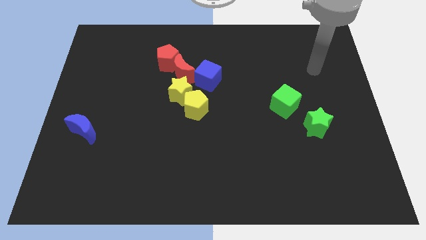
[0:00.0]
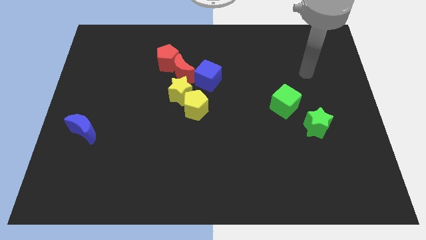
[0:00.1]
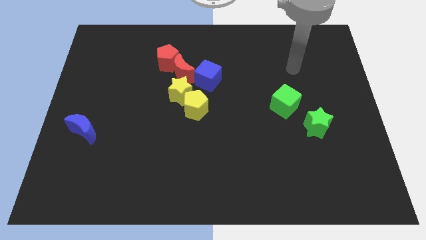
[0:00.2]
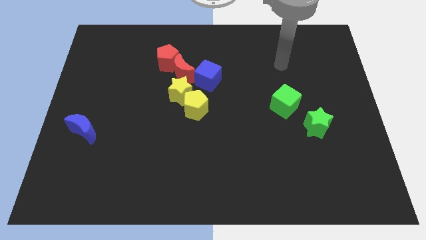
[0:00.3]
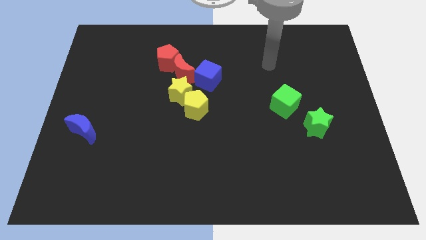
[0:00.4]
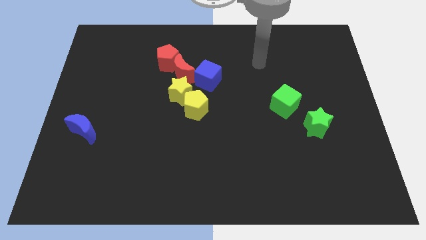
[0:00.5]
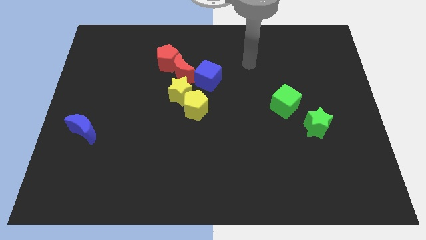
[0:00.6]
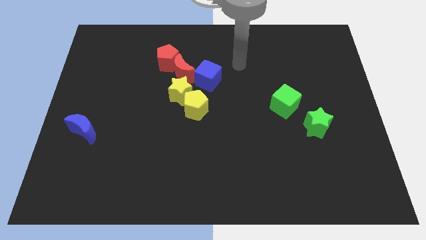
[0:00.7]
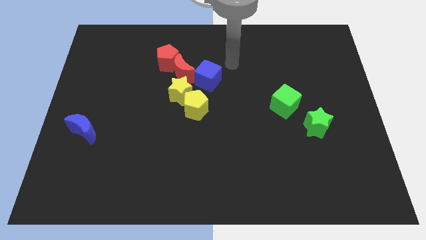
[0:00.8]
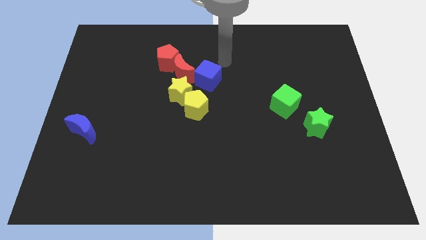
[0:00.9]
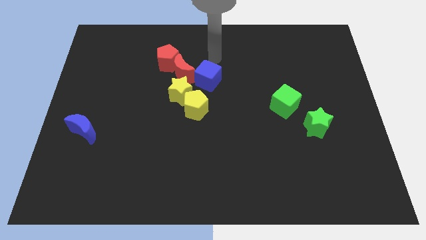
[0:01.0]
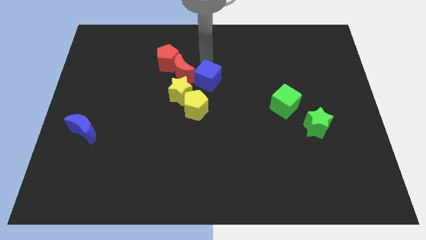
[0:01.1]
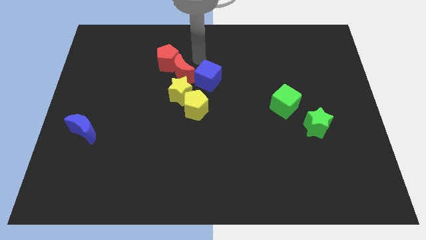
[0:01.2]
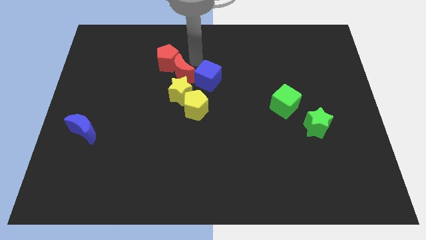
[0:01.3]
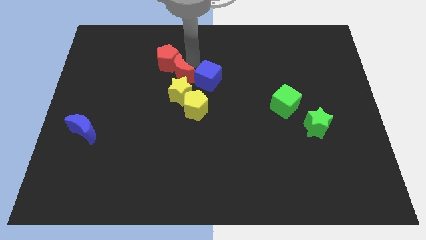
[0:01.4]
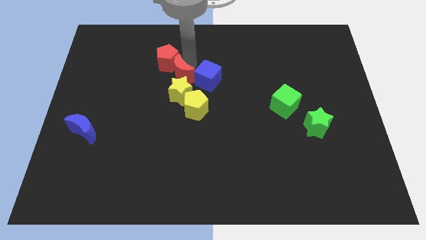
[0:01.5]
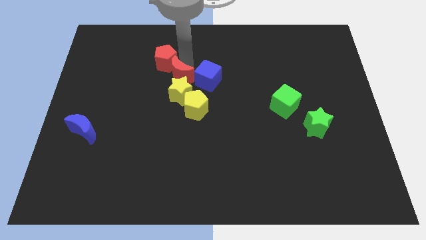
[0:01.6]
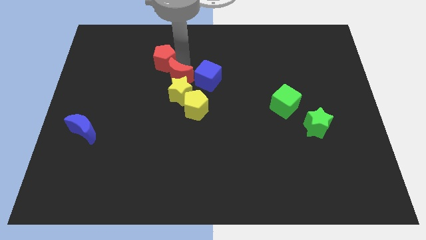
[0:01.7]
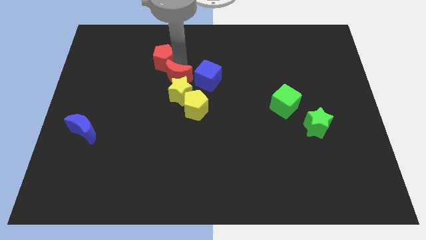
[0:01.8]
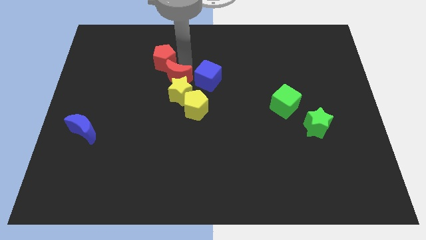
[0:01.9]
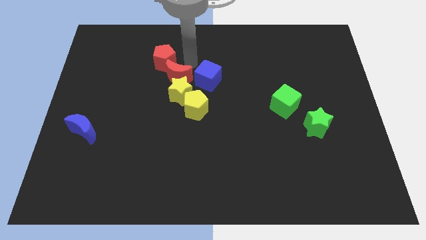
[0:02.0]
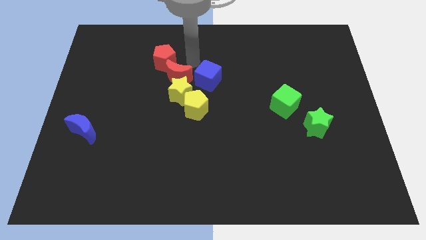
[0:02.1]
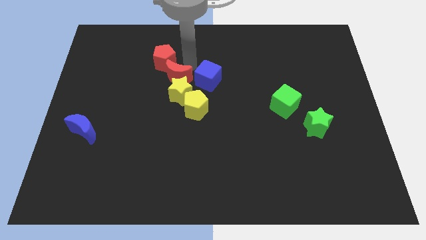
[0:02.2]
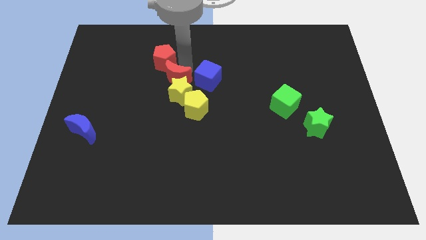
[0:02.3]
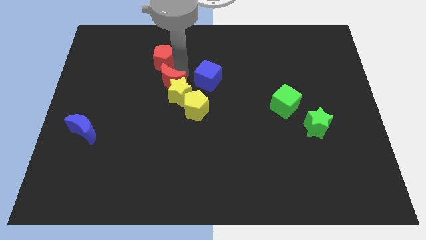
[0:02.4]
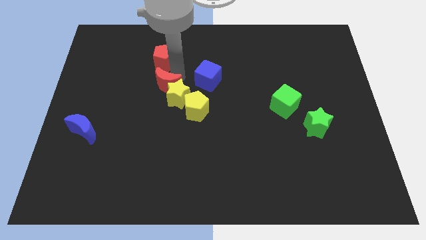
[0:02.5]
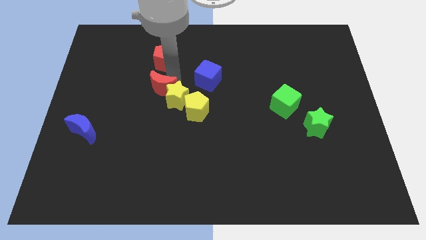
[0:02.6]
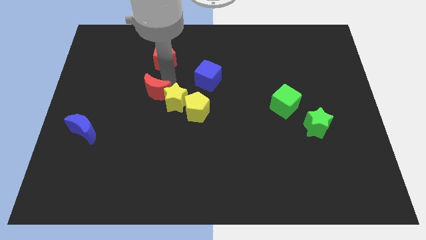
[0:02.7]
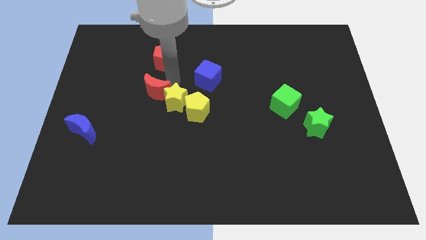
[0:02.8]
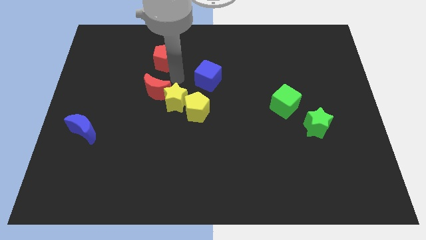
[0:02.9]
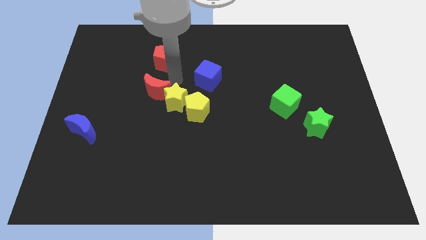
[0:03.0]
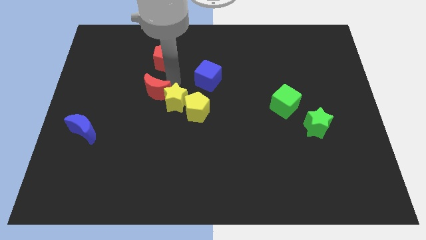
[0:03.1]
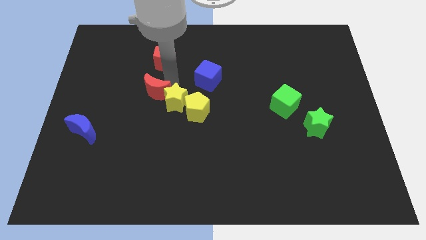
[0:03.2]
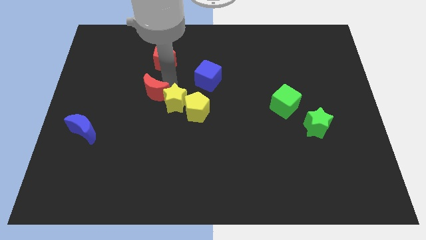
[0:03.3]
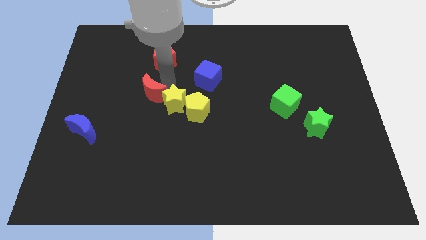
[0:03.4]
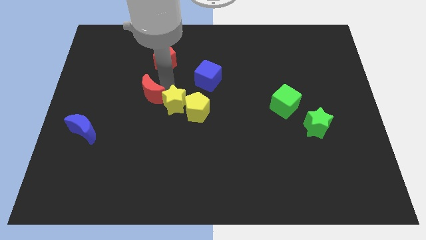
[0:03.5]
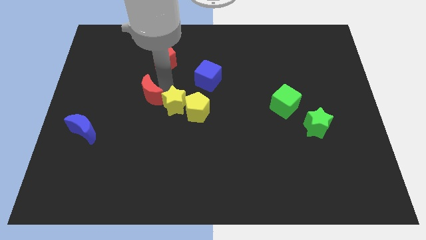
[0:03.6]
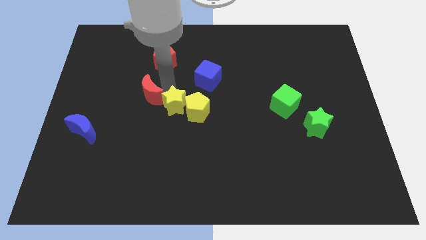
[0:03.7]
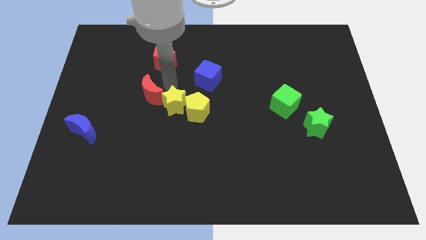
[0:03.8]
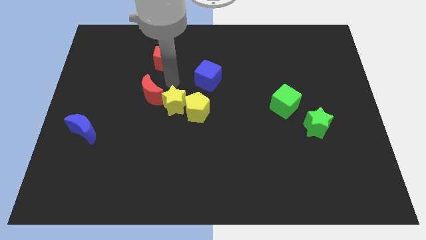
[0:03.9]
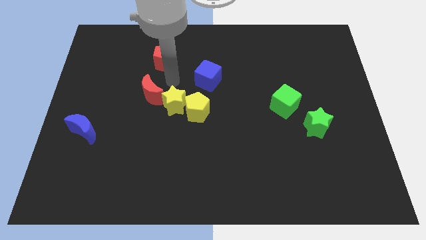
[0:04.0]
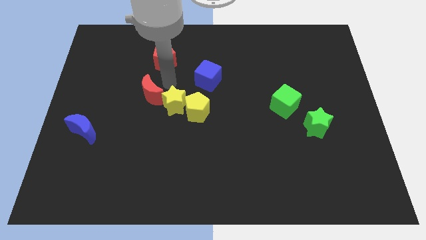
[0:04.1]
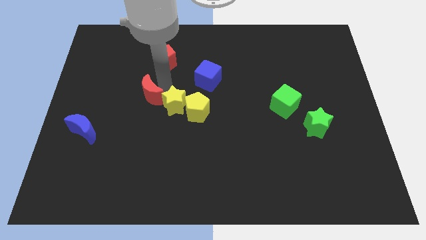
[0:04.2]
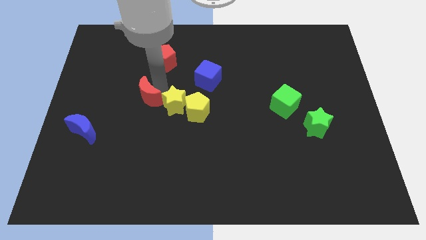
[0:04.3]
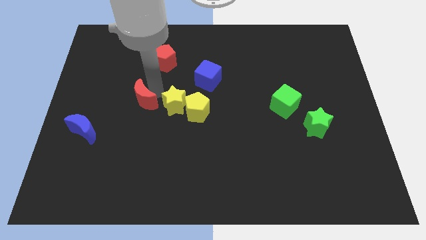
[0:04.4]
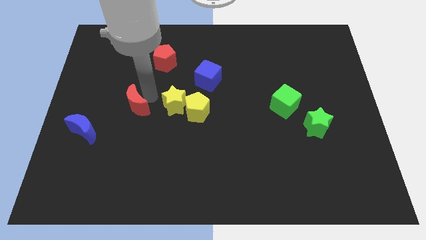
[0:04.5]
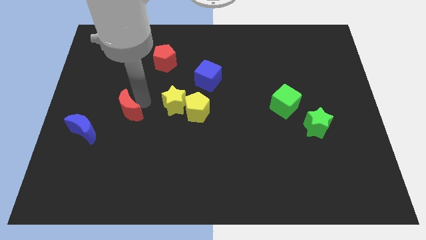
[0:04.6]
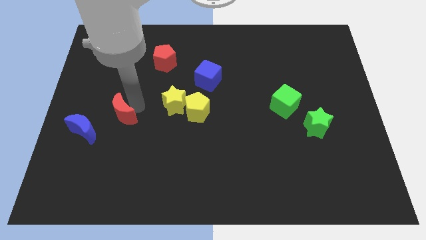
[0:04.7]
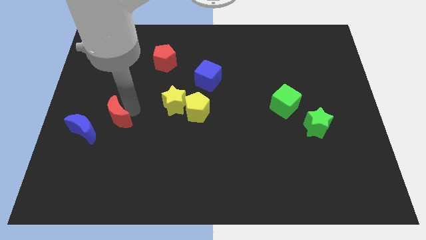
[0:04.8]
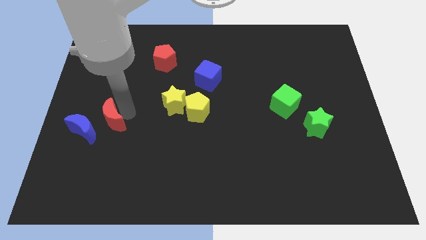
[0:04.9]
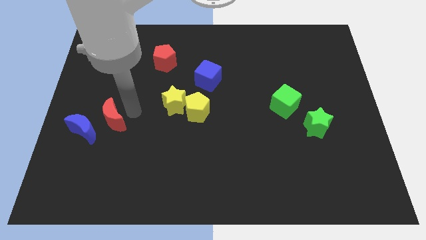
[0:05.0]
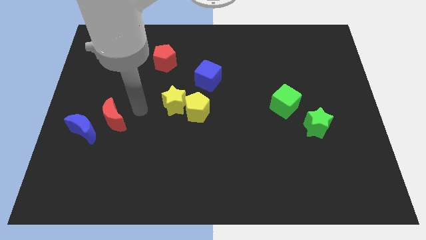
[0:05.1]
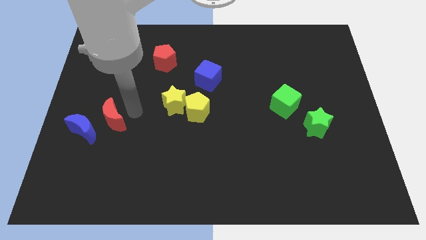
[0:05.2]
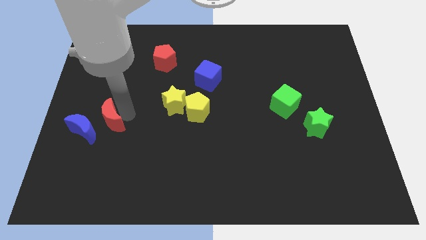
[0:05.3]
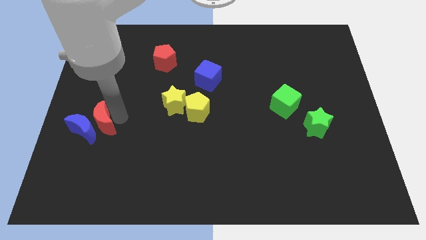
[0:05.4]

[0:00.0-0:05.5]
move the red moon next to the blue moon

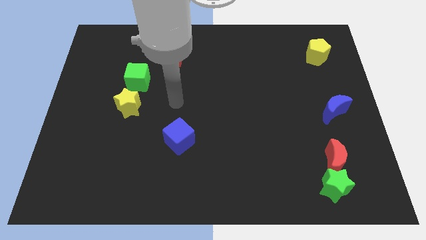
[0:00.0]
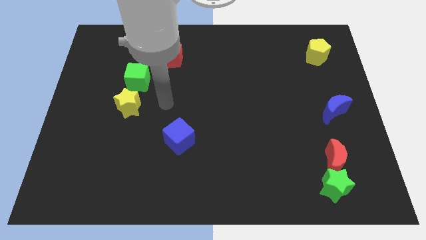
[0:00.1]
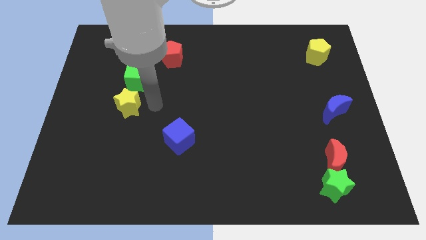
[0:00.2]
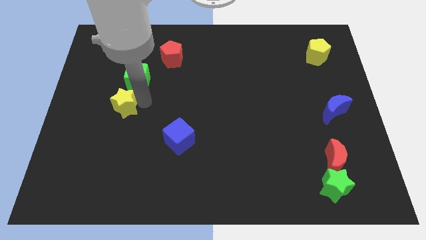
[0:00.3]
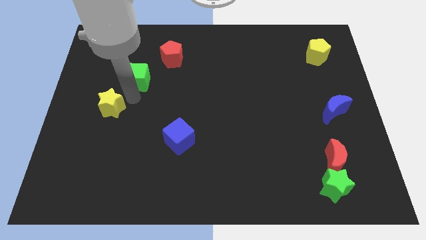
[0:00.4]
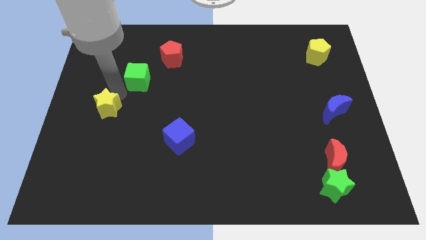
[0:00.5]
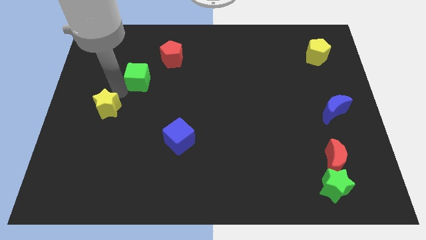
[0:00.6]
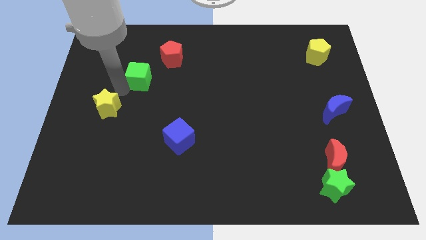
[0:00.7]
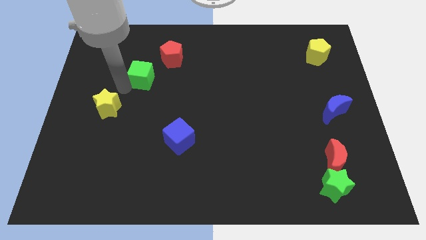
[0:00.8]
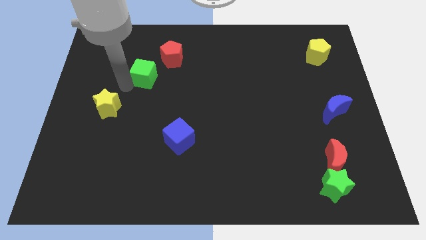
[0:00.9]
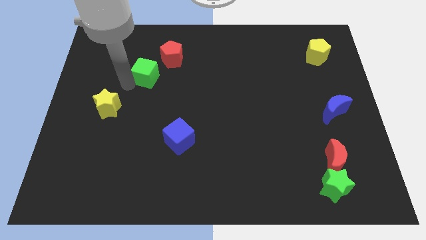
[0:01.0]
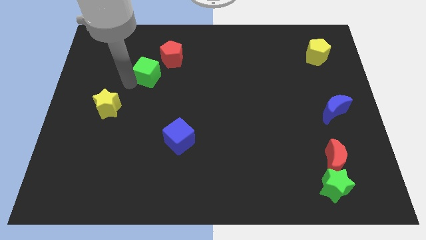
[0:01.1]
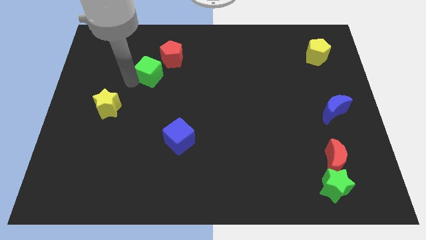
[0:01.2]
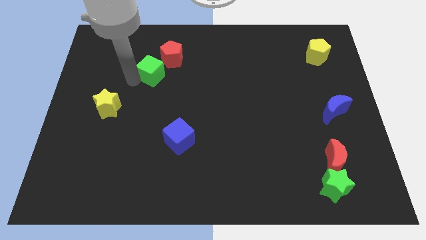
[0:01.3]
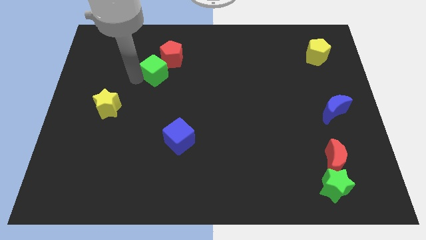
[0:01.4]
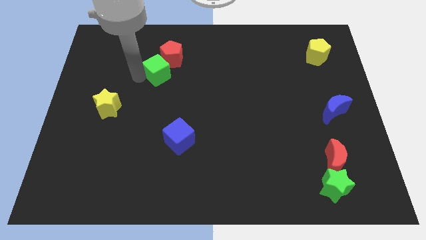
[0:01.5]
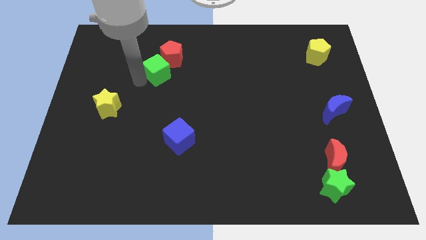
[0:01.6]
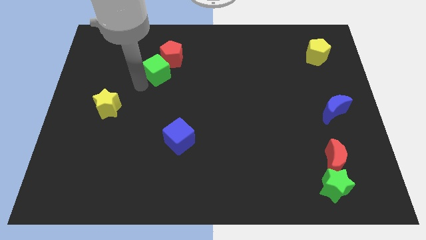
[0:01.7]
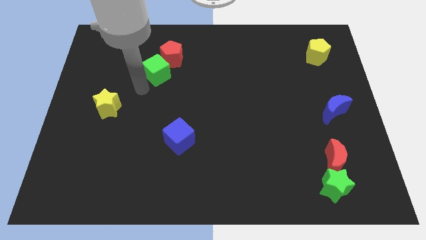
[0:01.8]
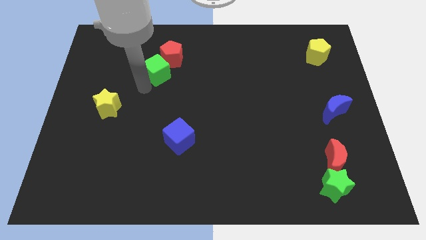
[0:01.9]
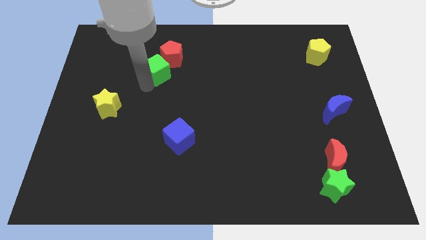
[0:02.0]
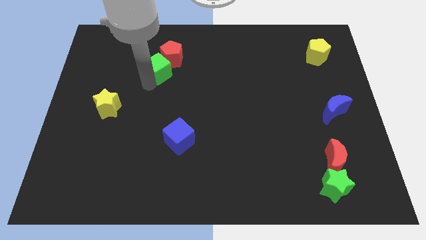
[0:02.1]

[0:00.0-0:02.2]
put the green cube to the red pentagon

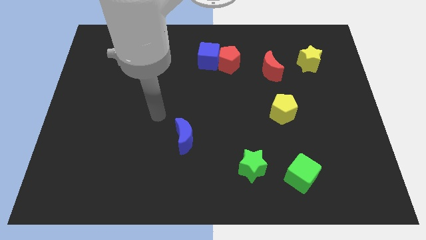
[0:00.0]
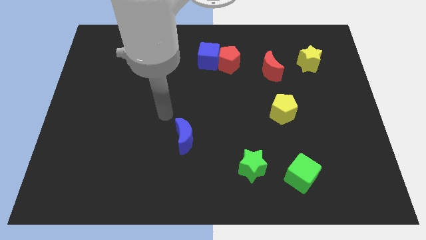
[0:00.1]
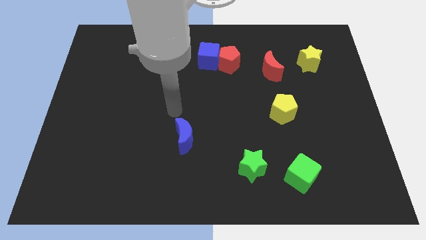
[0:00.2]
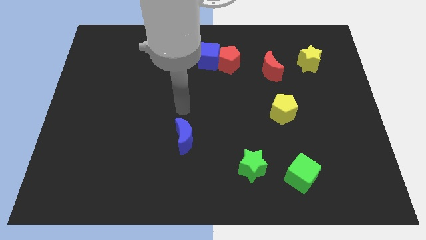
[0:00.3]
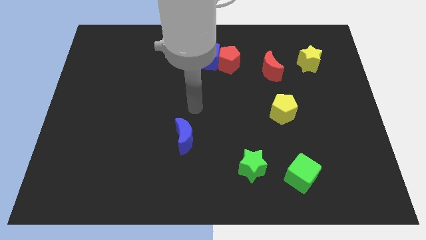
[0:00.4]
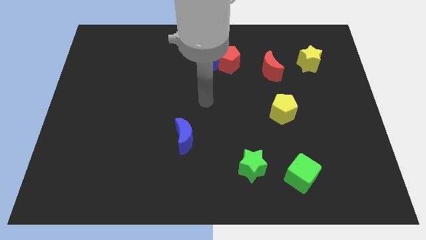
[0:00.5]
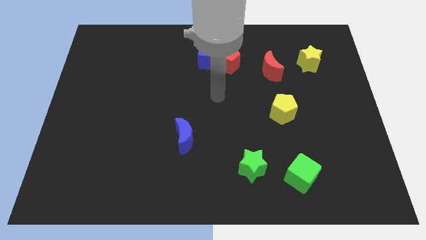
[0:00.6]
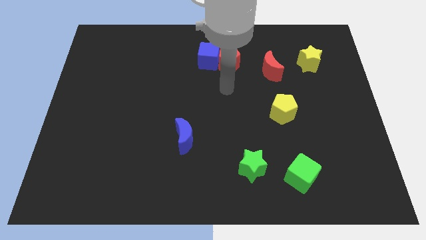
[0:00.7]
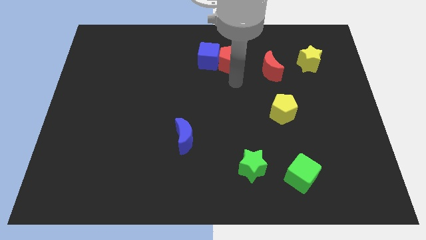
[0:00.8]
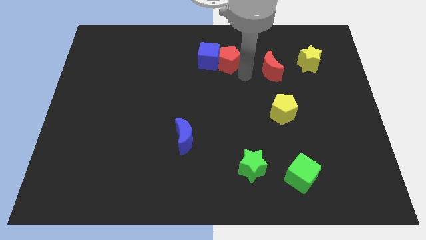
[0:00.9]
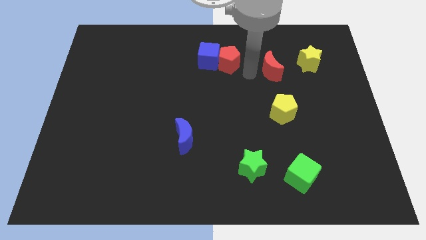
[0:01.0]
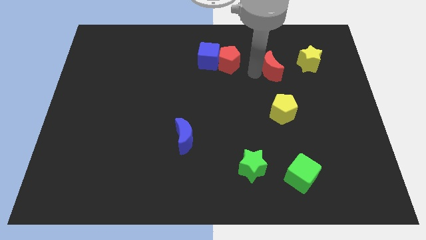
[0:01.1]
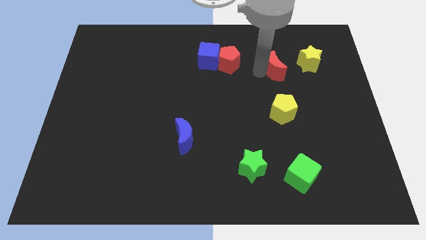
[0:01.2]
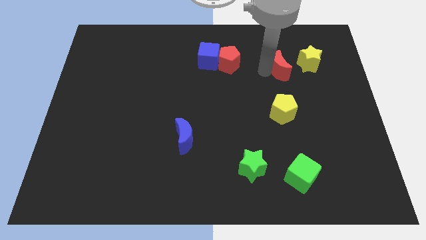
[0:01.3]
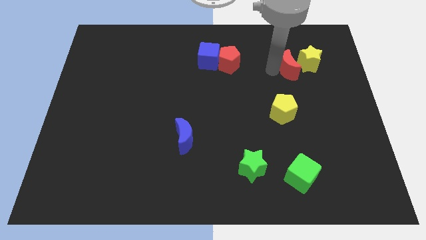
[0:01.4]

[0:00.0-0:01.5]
slide the red moon next to the yellow star
